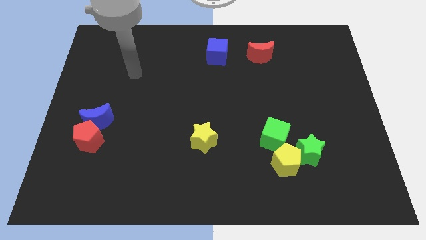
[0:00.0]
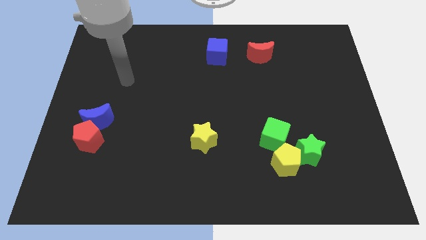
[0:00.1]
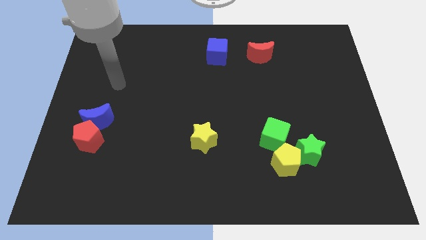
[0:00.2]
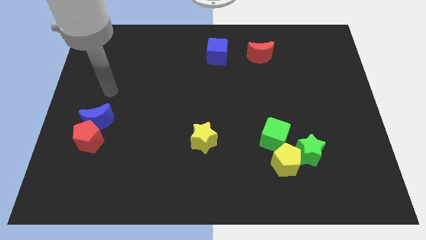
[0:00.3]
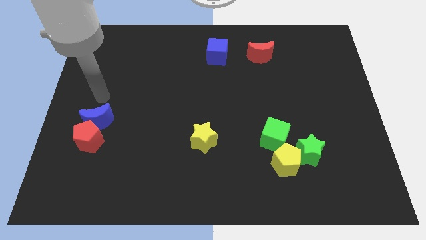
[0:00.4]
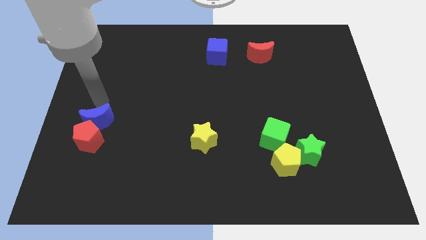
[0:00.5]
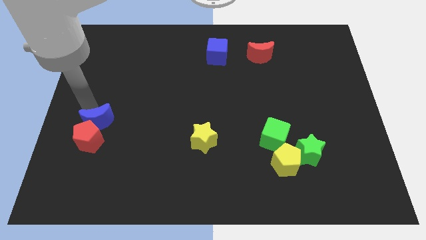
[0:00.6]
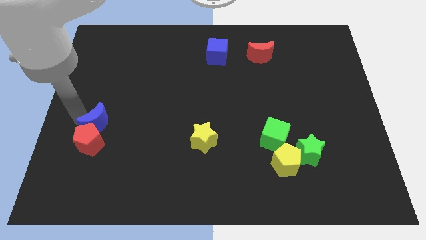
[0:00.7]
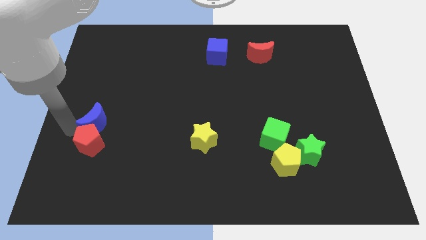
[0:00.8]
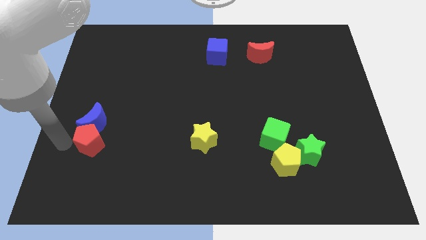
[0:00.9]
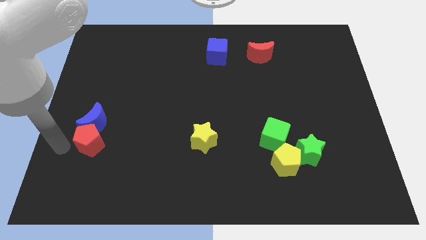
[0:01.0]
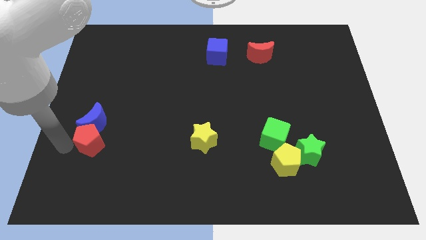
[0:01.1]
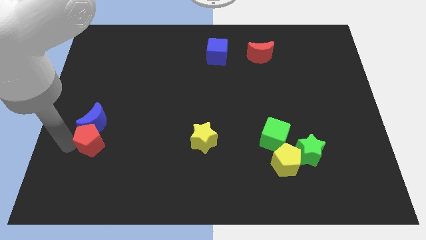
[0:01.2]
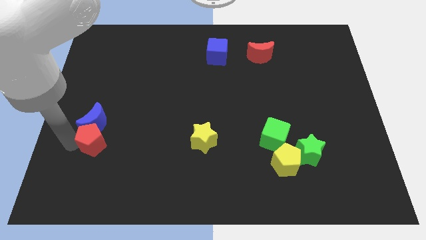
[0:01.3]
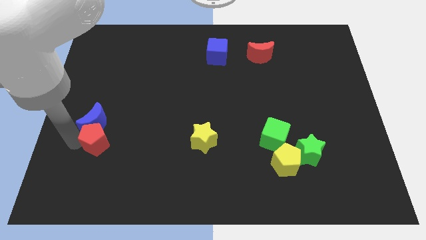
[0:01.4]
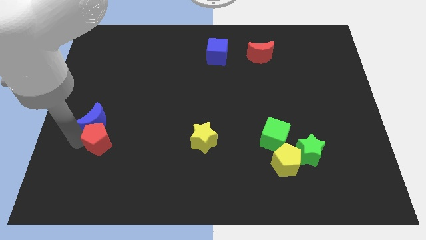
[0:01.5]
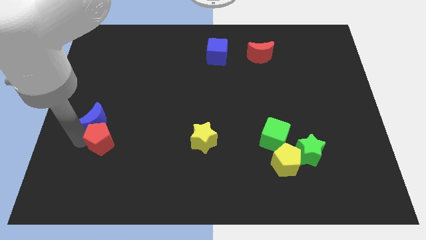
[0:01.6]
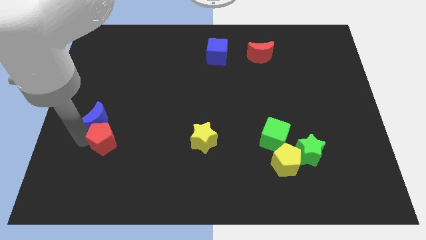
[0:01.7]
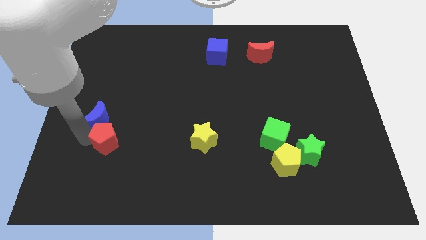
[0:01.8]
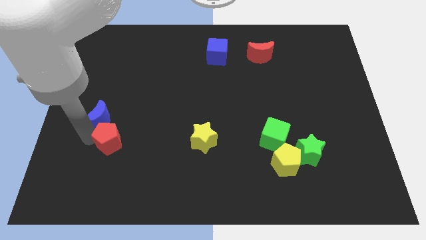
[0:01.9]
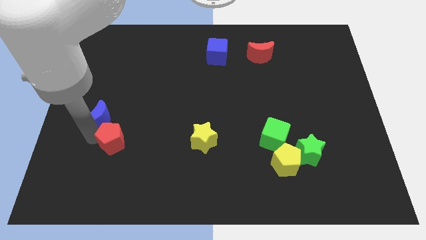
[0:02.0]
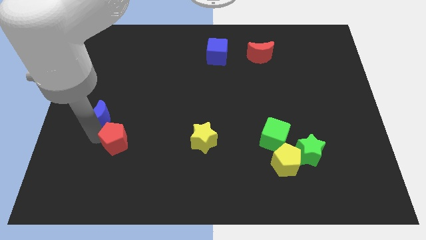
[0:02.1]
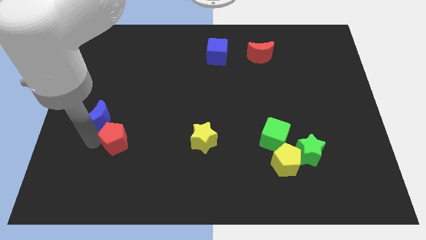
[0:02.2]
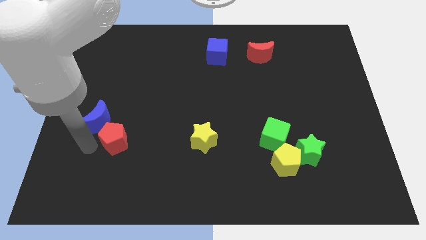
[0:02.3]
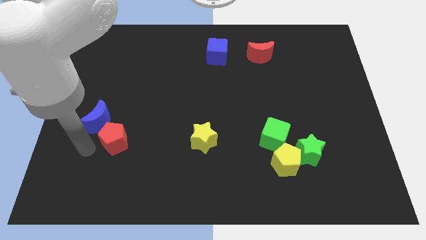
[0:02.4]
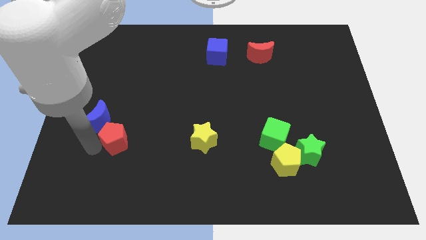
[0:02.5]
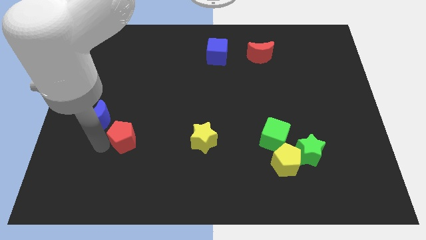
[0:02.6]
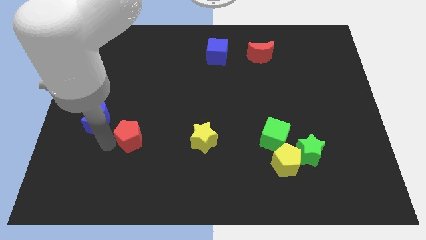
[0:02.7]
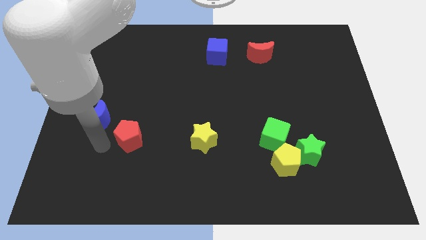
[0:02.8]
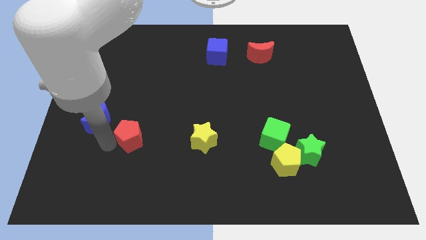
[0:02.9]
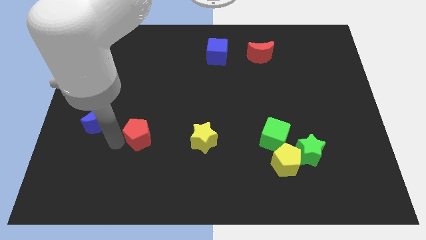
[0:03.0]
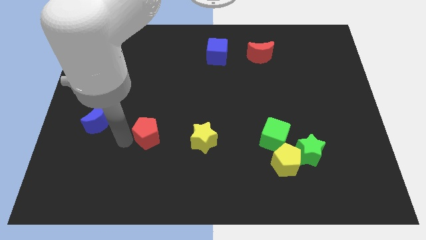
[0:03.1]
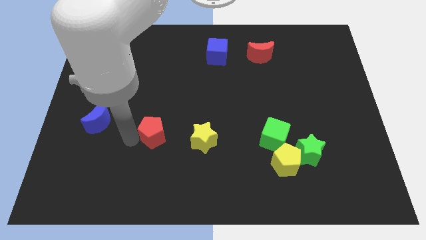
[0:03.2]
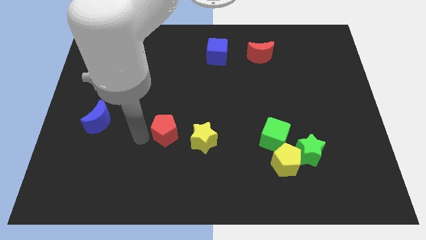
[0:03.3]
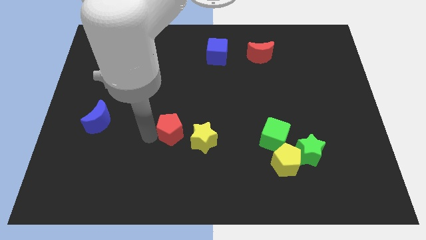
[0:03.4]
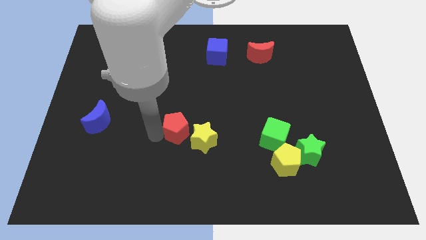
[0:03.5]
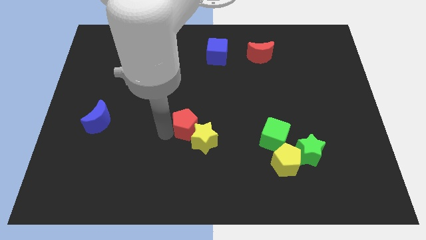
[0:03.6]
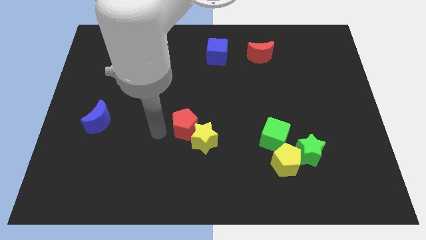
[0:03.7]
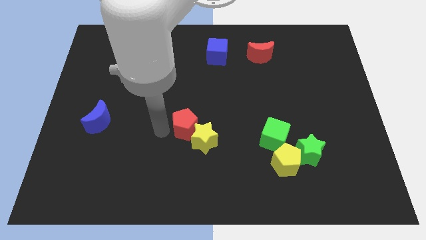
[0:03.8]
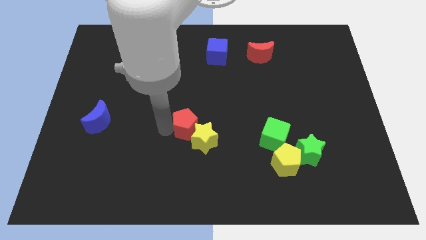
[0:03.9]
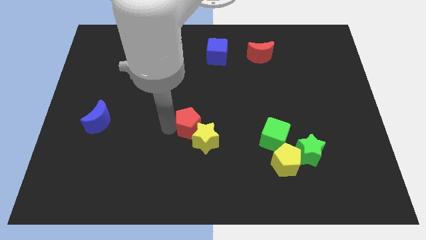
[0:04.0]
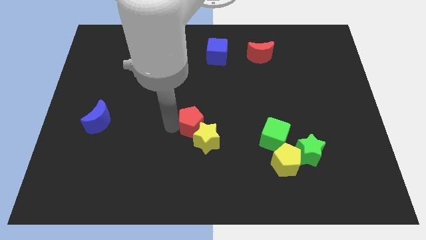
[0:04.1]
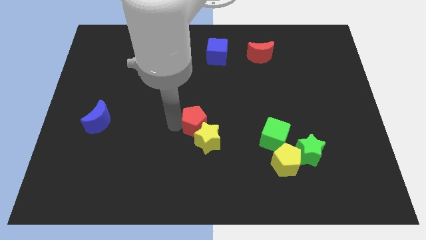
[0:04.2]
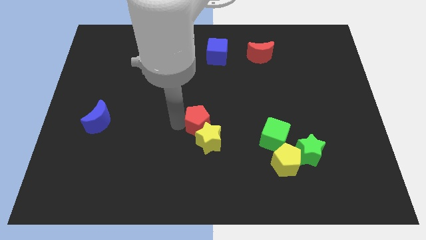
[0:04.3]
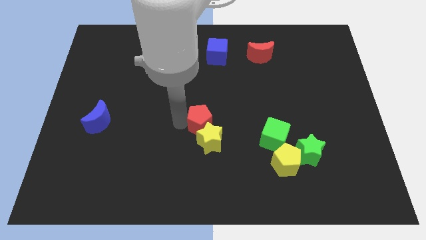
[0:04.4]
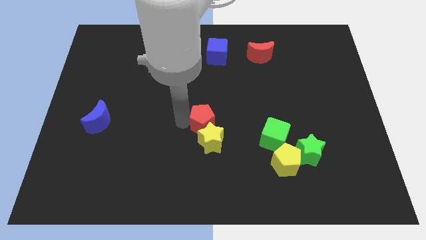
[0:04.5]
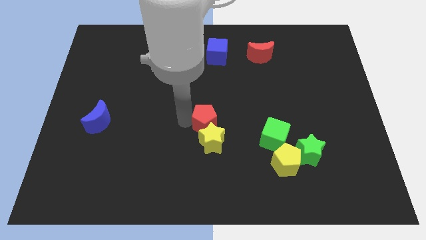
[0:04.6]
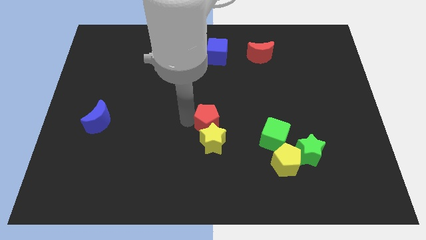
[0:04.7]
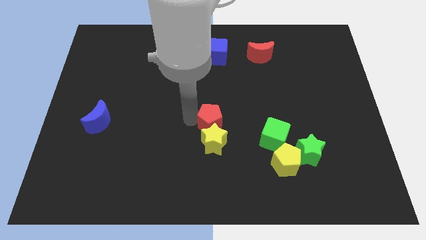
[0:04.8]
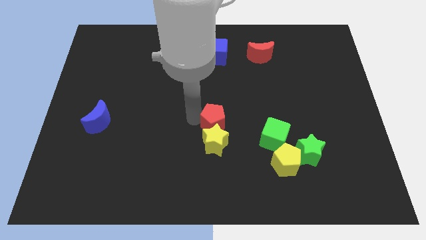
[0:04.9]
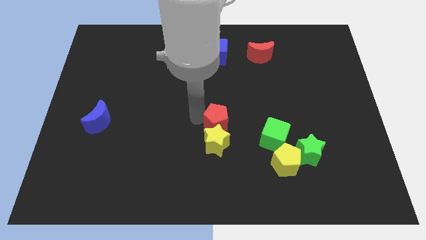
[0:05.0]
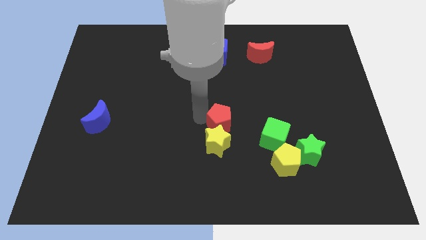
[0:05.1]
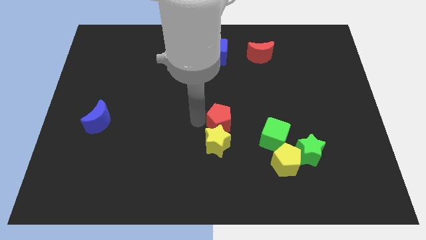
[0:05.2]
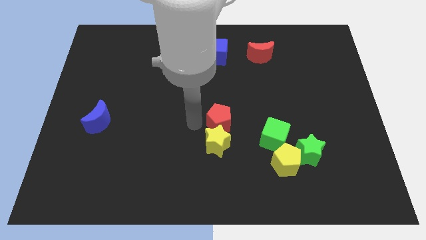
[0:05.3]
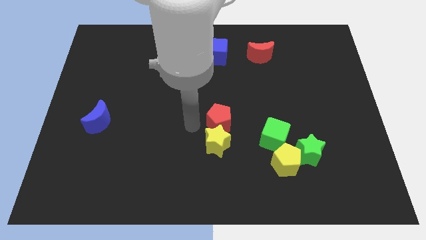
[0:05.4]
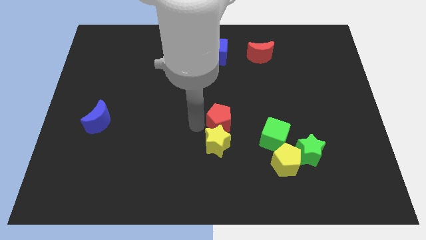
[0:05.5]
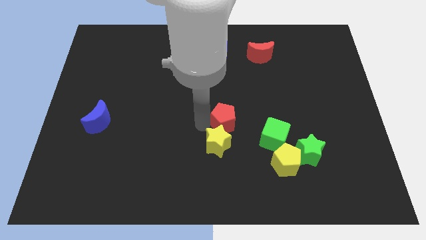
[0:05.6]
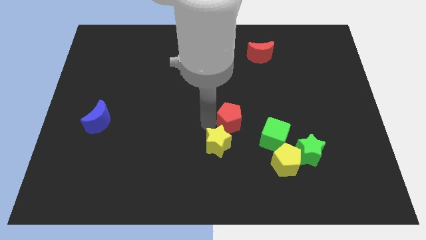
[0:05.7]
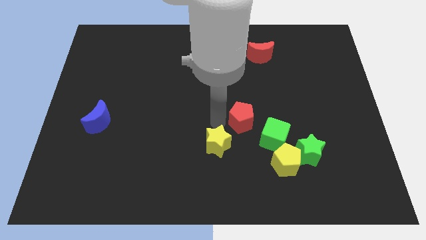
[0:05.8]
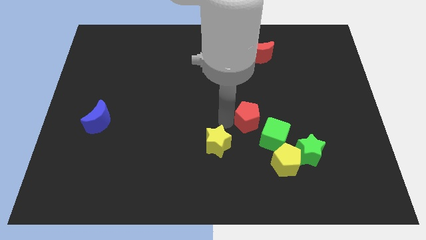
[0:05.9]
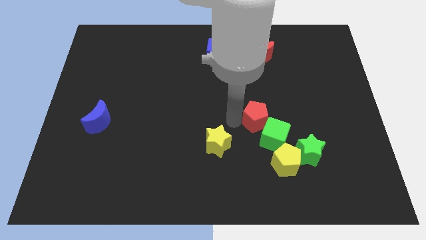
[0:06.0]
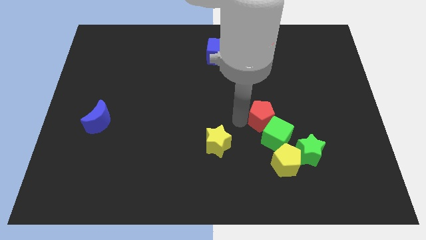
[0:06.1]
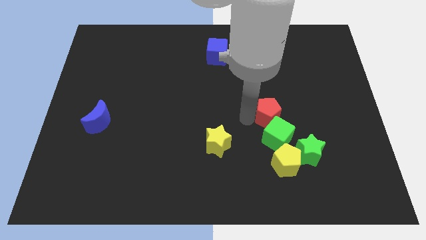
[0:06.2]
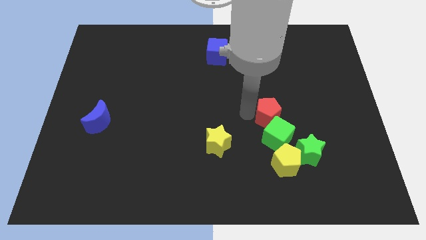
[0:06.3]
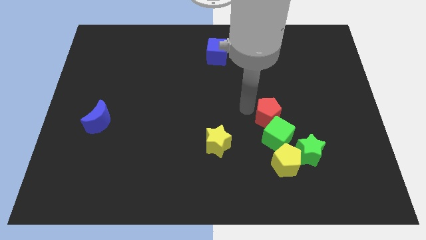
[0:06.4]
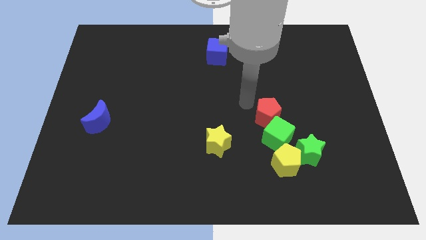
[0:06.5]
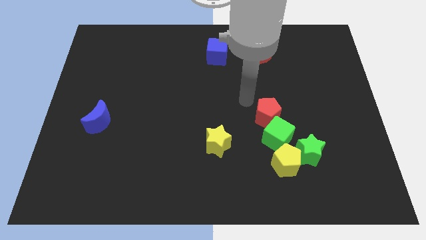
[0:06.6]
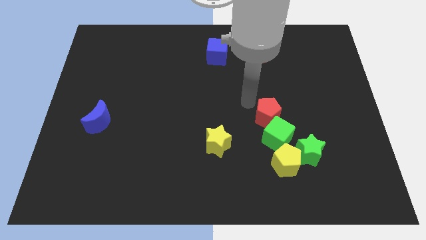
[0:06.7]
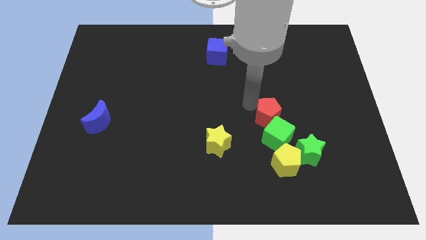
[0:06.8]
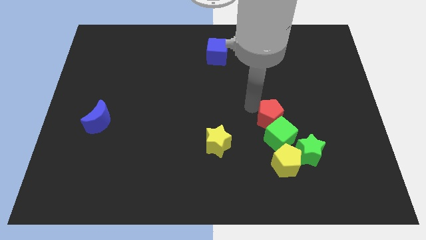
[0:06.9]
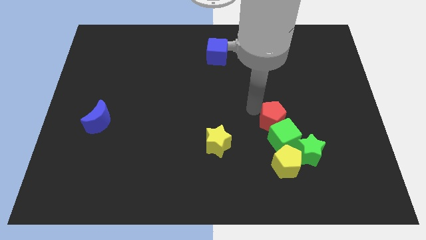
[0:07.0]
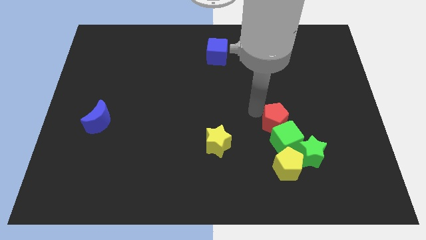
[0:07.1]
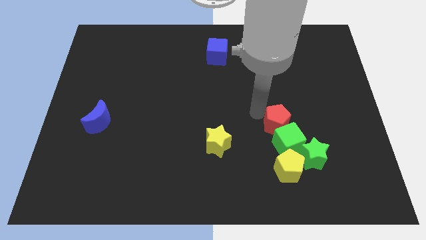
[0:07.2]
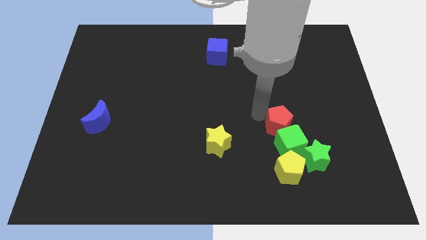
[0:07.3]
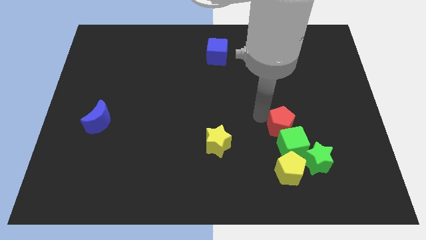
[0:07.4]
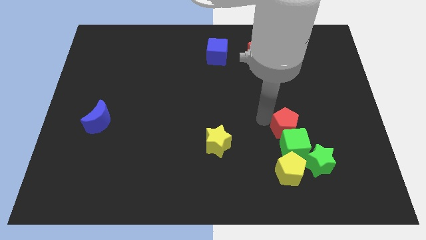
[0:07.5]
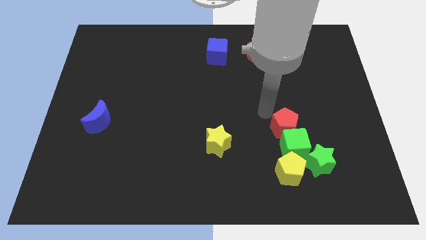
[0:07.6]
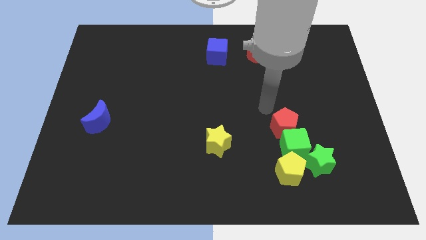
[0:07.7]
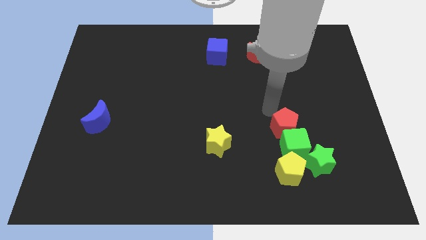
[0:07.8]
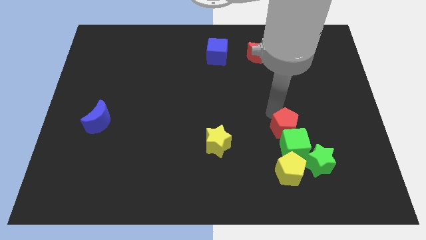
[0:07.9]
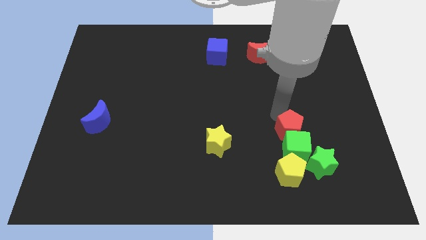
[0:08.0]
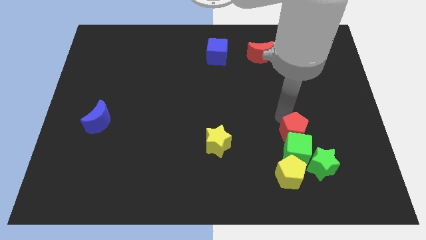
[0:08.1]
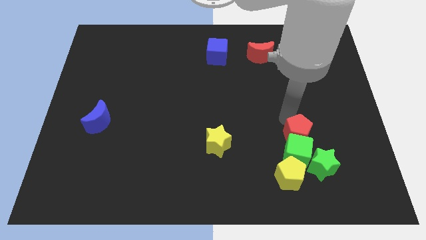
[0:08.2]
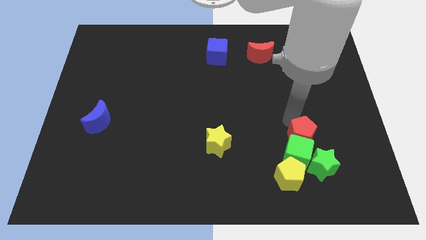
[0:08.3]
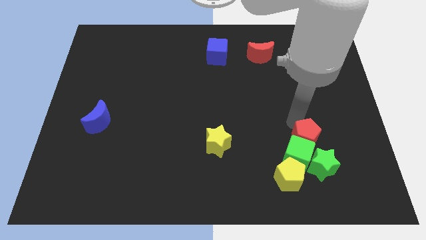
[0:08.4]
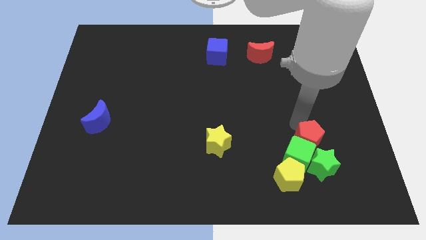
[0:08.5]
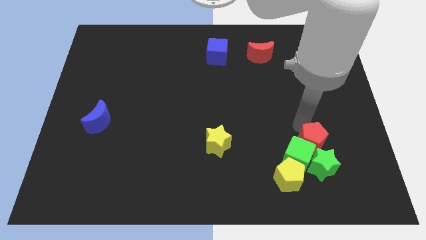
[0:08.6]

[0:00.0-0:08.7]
put the red pentagon next to the green star
